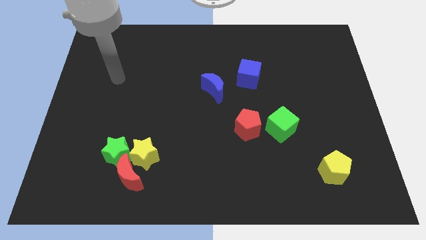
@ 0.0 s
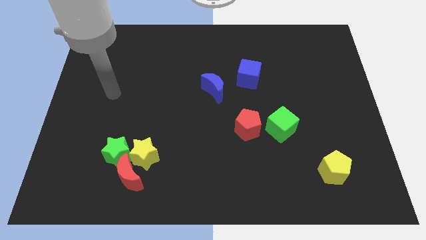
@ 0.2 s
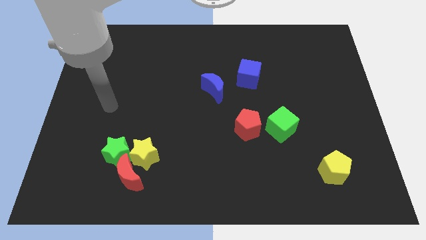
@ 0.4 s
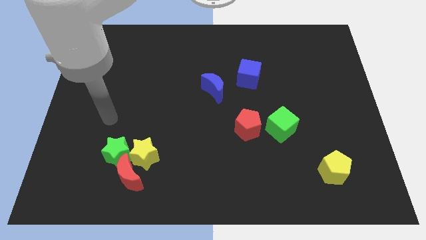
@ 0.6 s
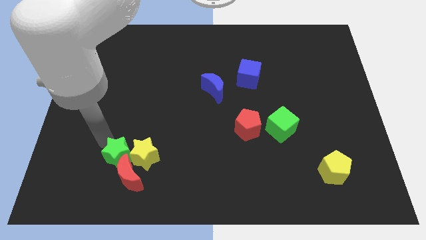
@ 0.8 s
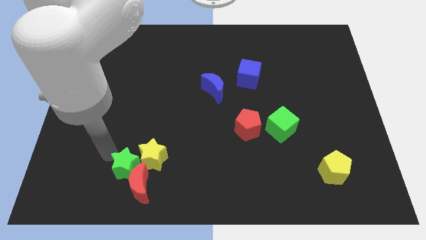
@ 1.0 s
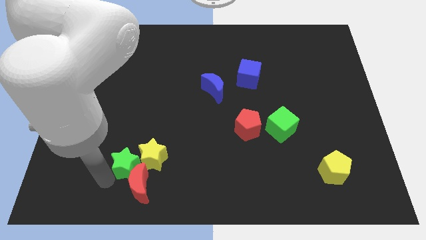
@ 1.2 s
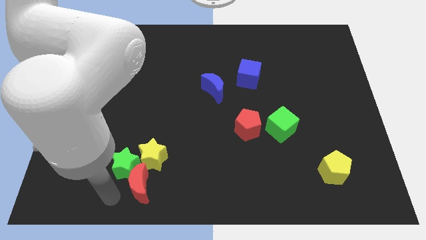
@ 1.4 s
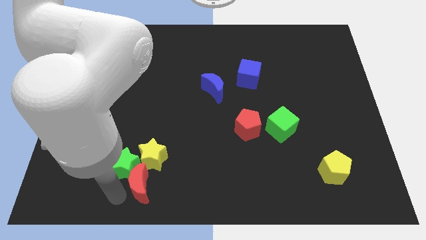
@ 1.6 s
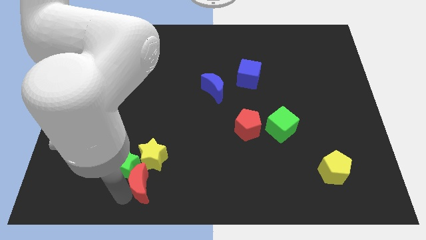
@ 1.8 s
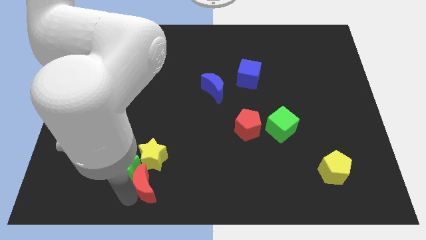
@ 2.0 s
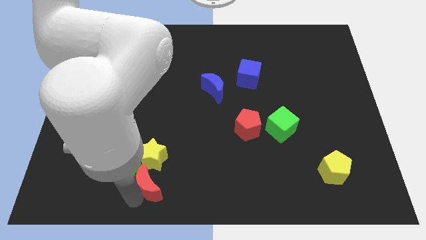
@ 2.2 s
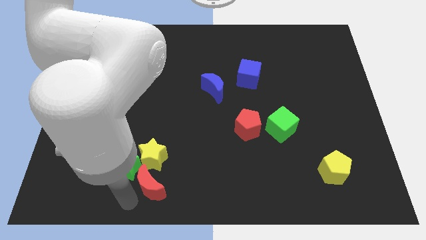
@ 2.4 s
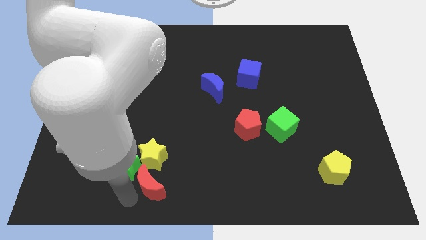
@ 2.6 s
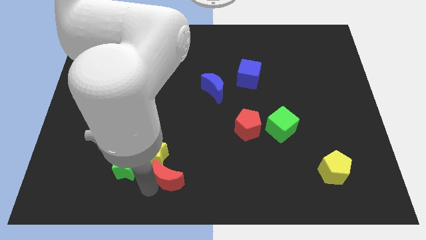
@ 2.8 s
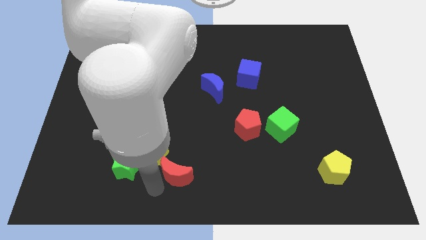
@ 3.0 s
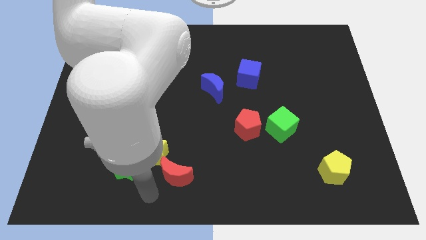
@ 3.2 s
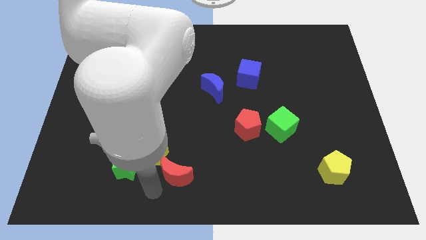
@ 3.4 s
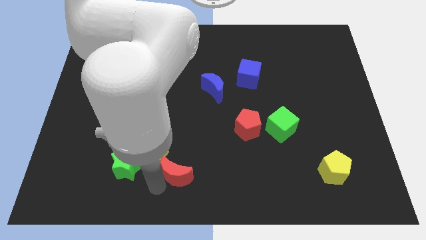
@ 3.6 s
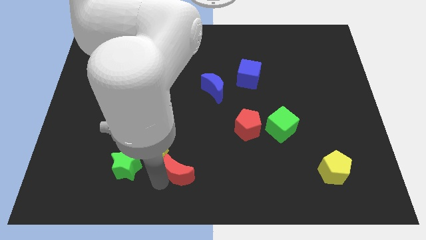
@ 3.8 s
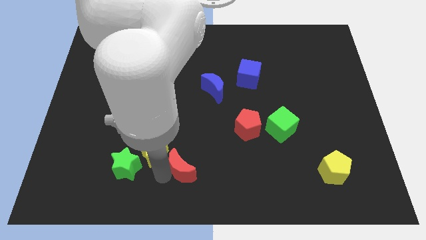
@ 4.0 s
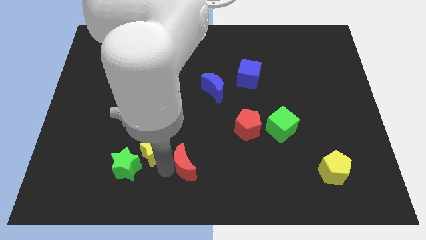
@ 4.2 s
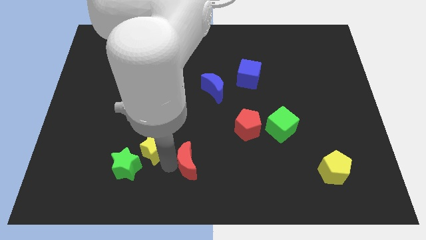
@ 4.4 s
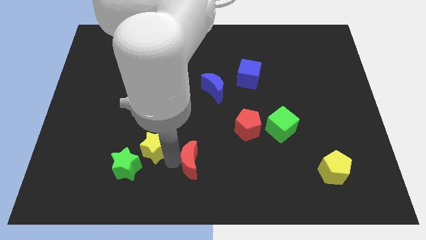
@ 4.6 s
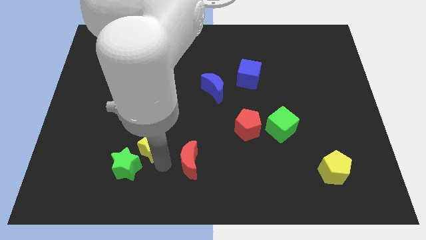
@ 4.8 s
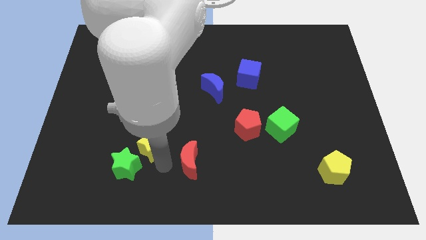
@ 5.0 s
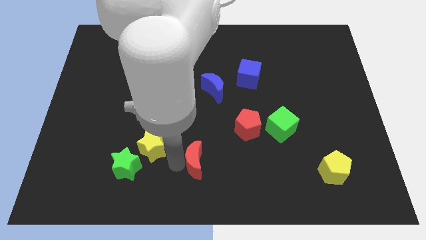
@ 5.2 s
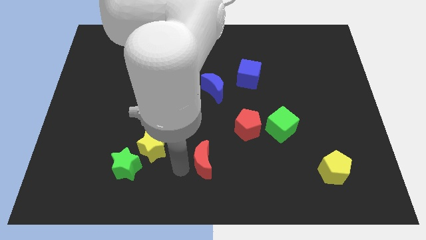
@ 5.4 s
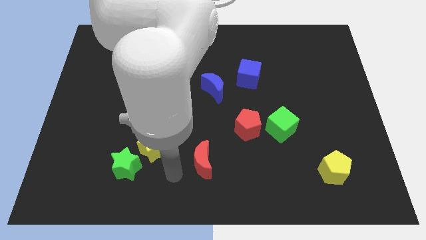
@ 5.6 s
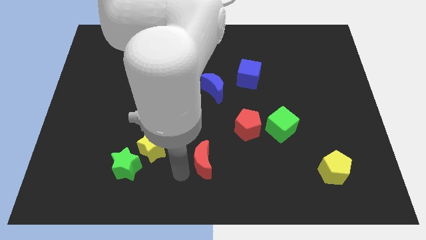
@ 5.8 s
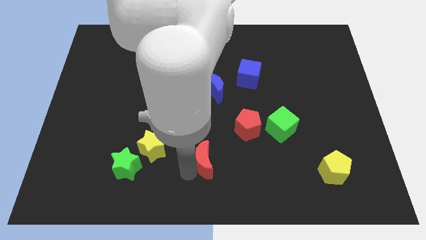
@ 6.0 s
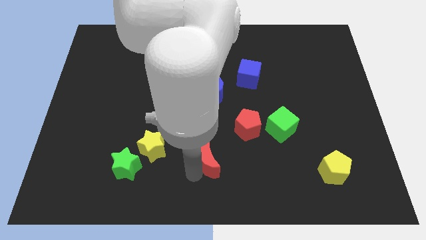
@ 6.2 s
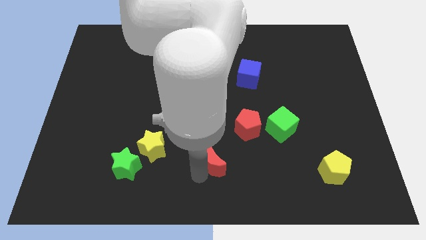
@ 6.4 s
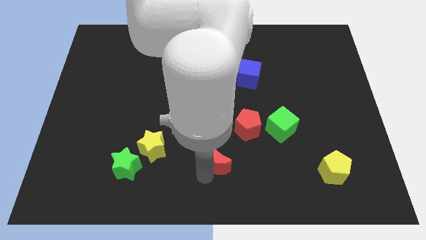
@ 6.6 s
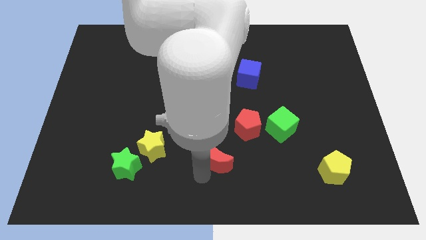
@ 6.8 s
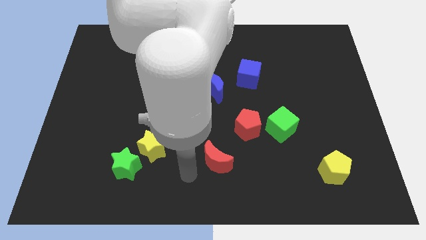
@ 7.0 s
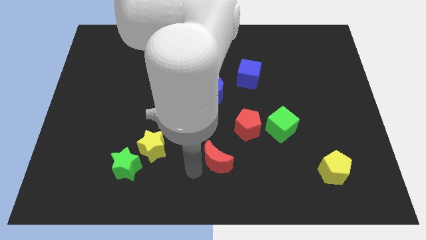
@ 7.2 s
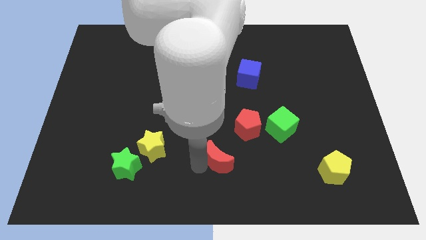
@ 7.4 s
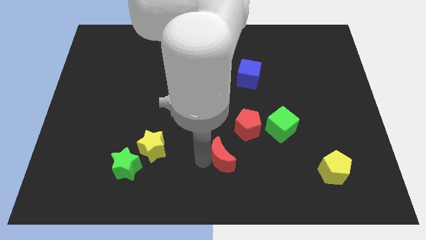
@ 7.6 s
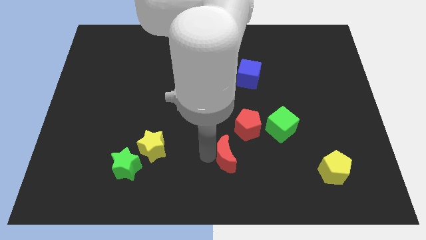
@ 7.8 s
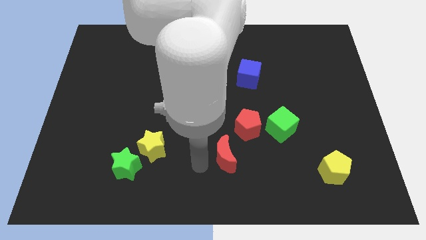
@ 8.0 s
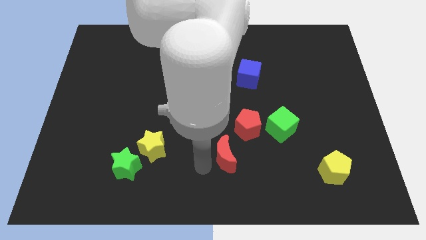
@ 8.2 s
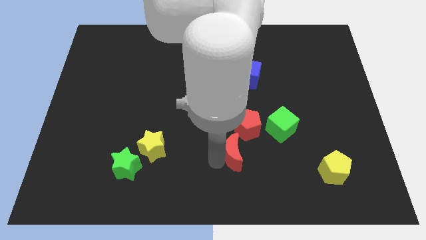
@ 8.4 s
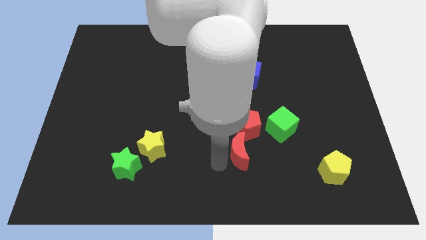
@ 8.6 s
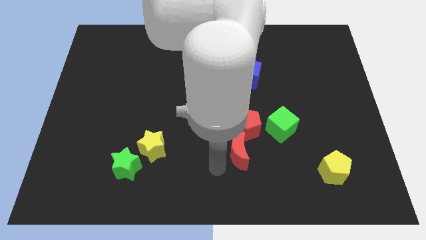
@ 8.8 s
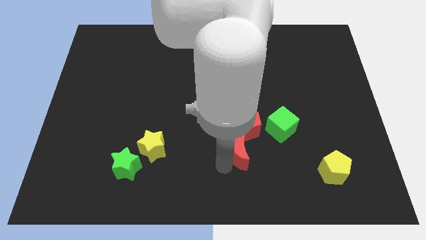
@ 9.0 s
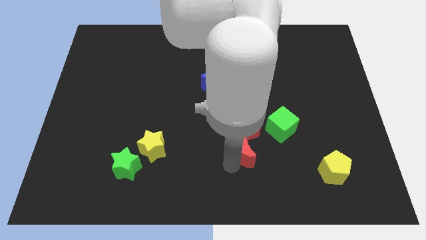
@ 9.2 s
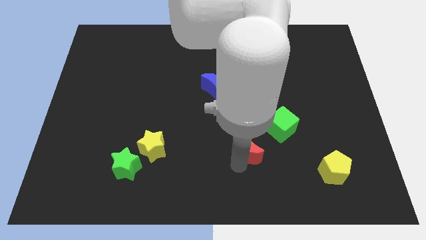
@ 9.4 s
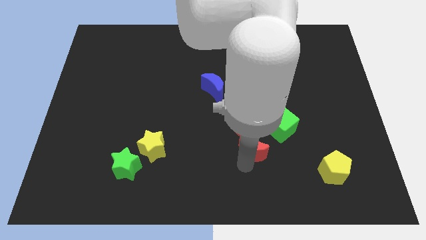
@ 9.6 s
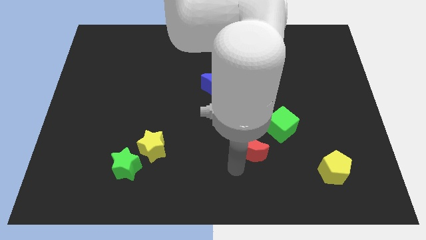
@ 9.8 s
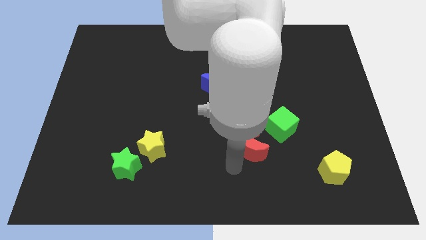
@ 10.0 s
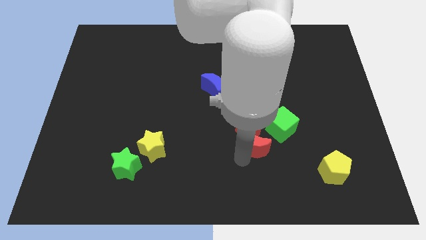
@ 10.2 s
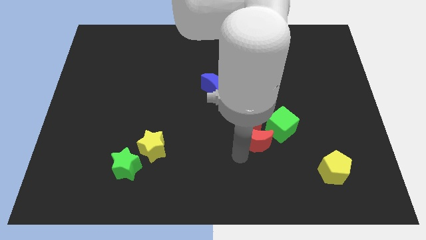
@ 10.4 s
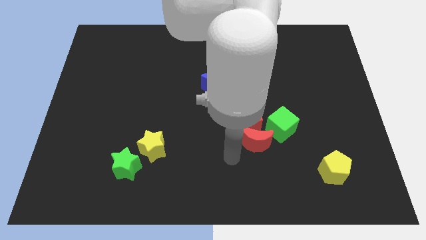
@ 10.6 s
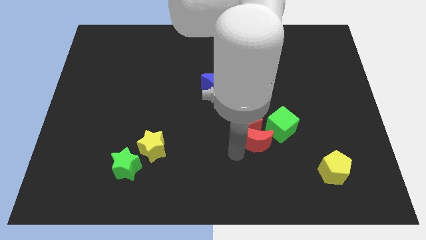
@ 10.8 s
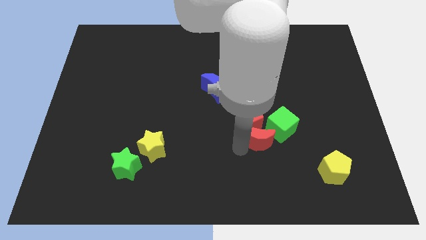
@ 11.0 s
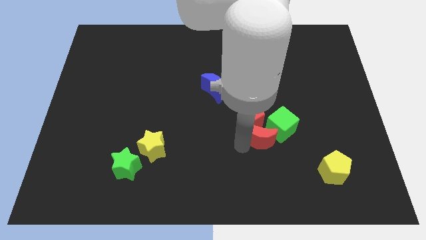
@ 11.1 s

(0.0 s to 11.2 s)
push the red moon to the green cube

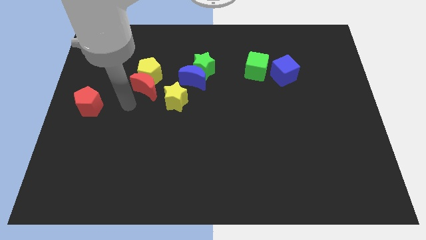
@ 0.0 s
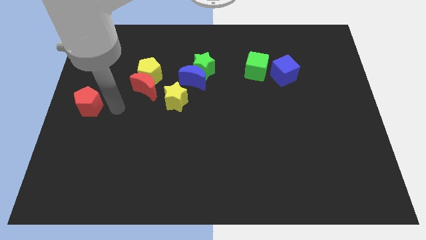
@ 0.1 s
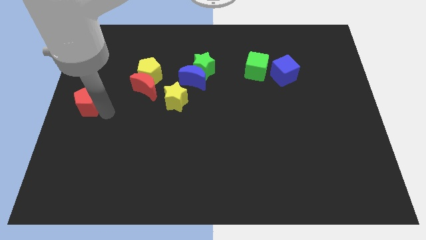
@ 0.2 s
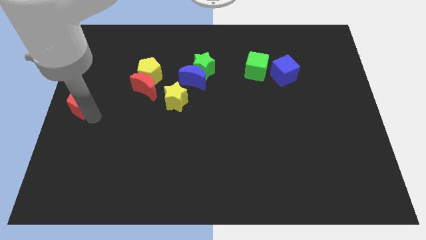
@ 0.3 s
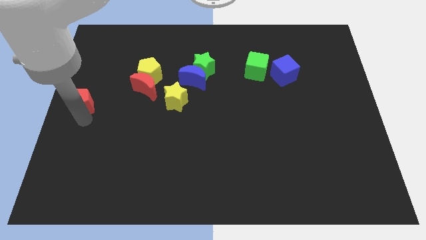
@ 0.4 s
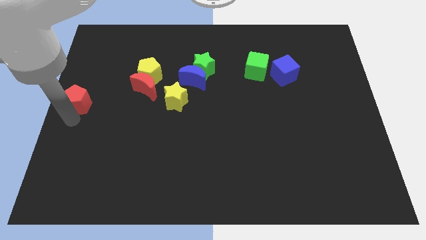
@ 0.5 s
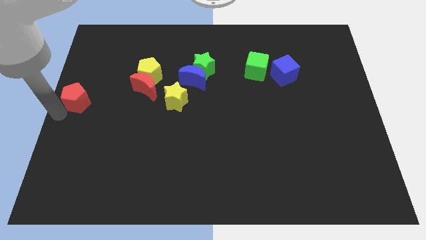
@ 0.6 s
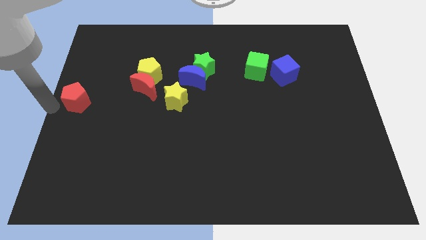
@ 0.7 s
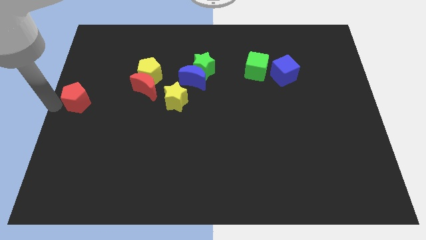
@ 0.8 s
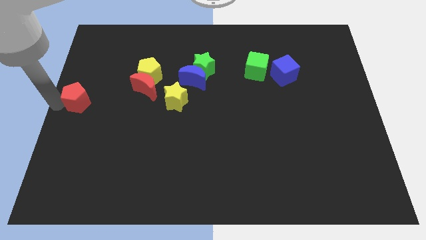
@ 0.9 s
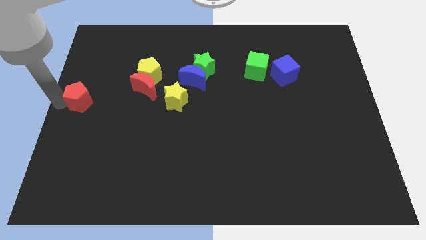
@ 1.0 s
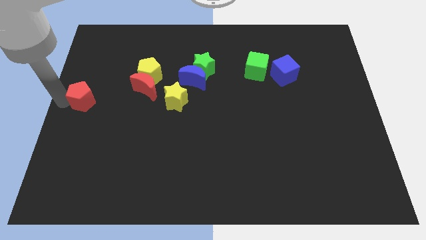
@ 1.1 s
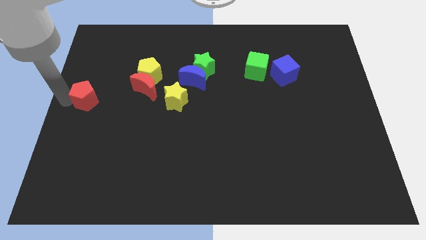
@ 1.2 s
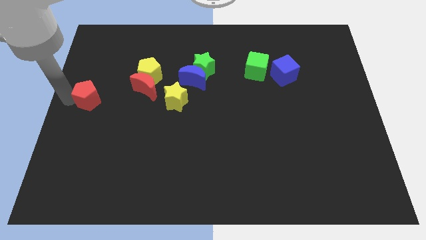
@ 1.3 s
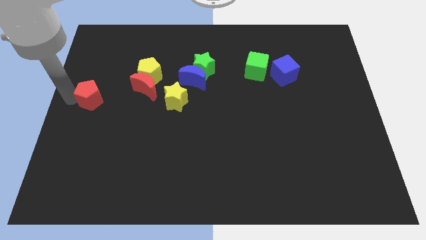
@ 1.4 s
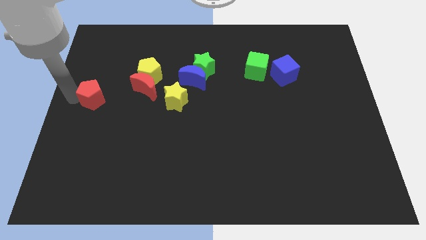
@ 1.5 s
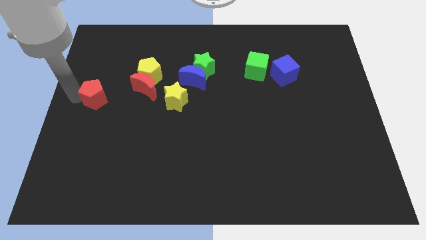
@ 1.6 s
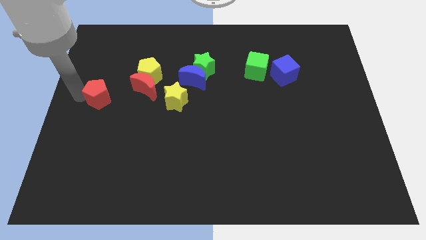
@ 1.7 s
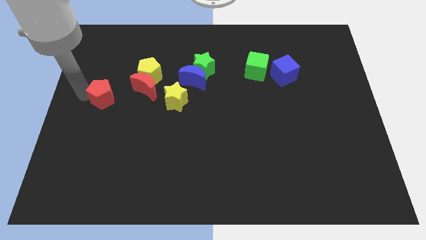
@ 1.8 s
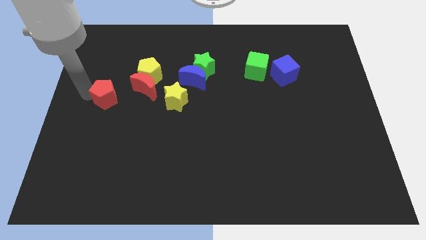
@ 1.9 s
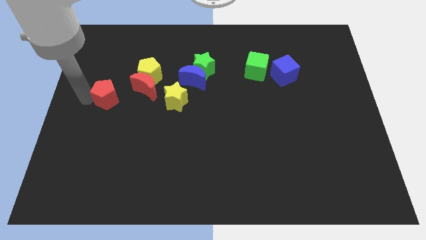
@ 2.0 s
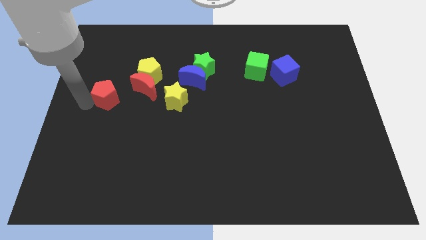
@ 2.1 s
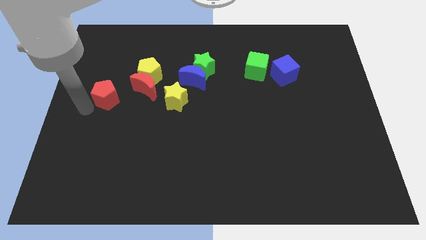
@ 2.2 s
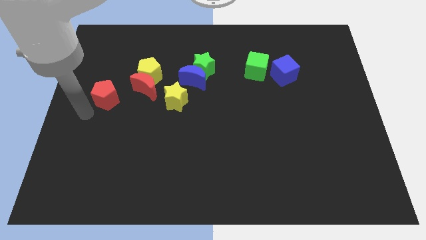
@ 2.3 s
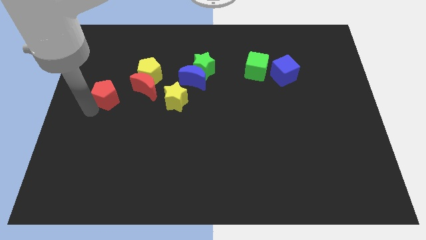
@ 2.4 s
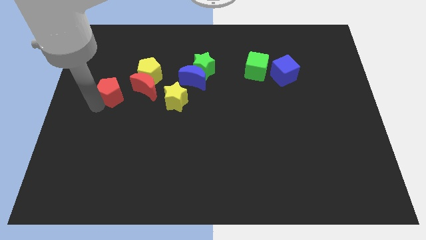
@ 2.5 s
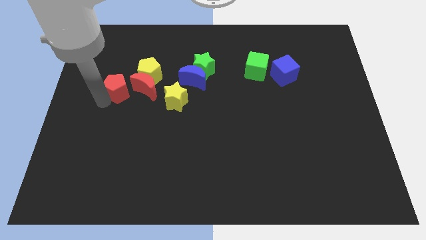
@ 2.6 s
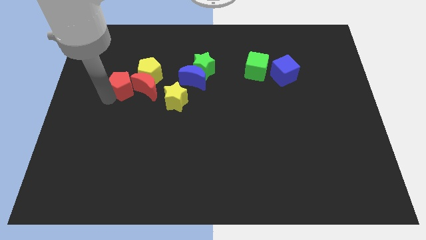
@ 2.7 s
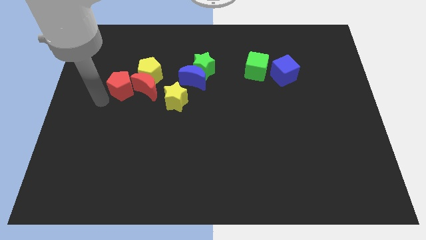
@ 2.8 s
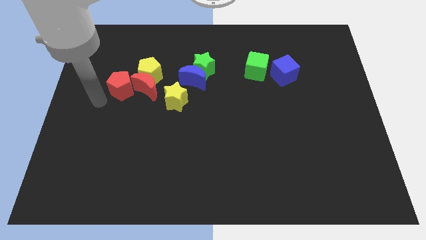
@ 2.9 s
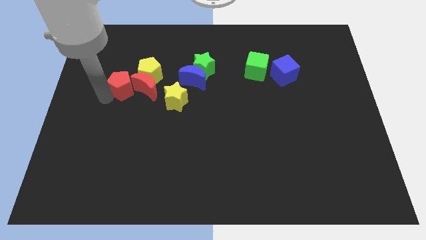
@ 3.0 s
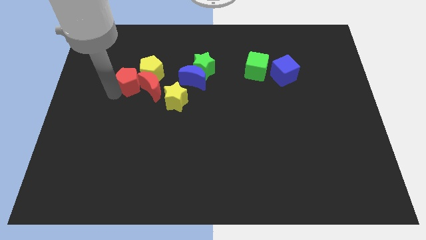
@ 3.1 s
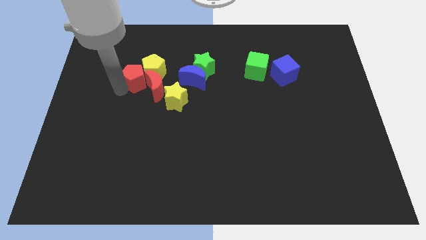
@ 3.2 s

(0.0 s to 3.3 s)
move the red pentagon towards the yellow pentagon
